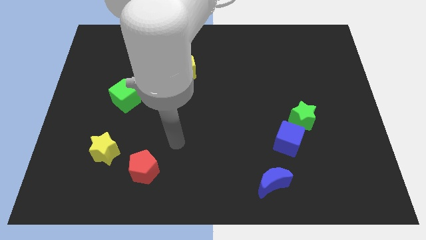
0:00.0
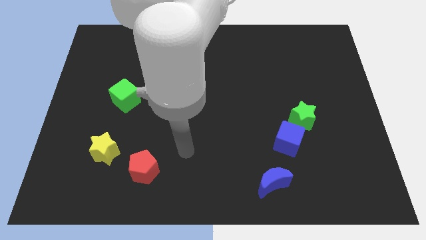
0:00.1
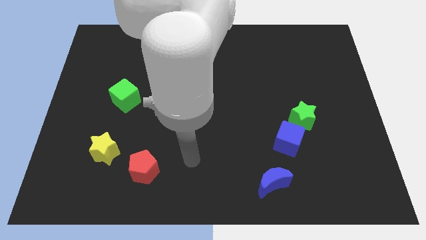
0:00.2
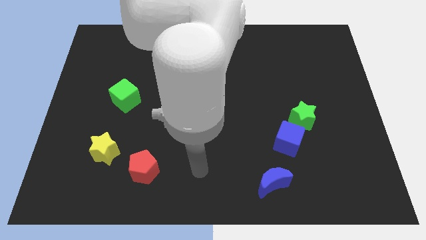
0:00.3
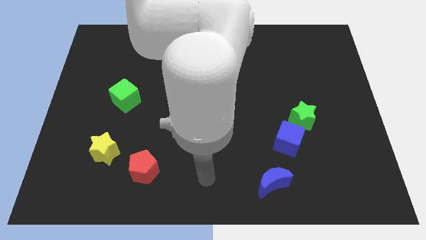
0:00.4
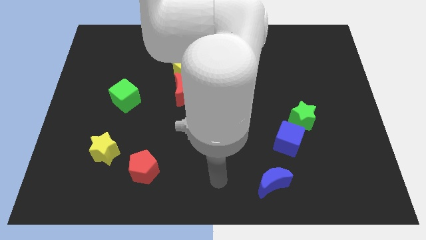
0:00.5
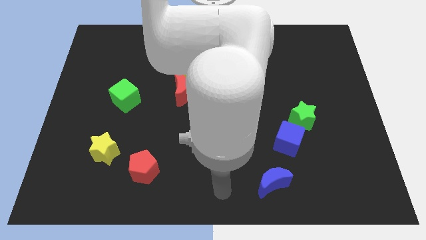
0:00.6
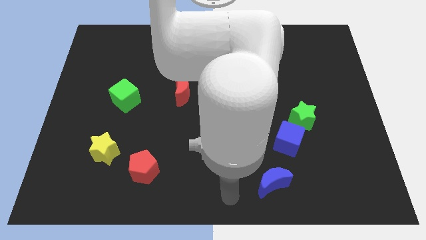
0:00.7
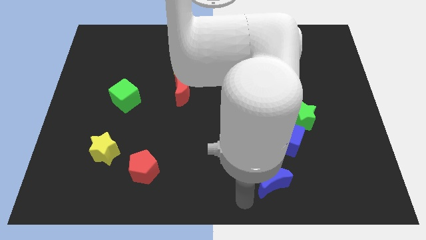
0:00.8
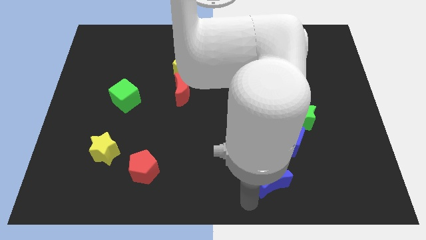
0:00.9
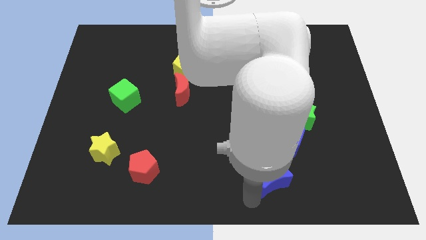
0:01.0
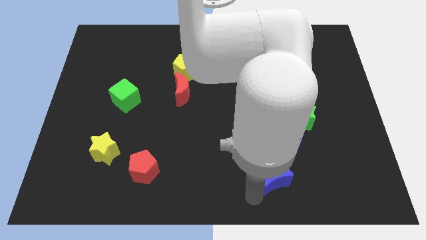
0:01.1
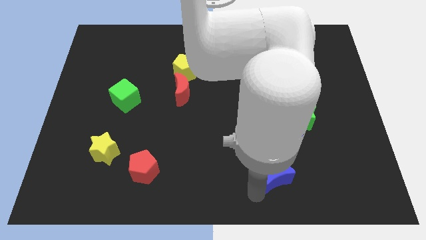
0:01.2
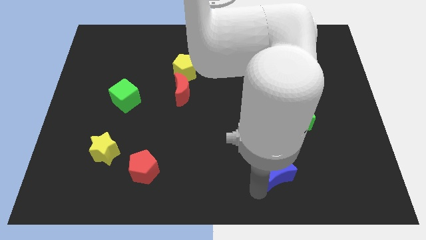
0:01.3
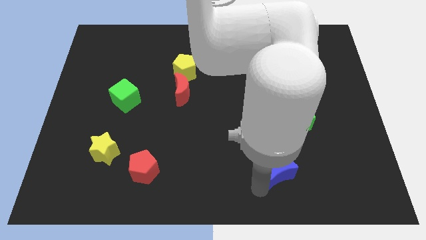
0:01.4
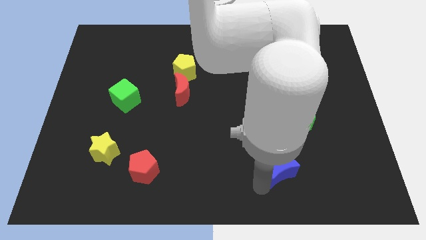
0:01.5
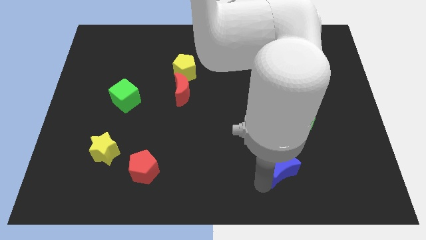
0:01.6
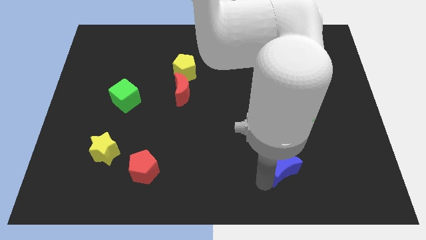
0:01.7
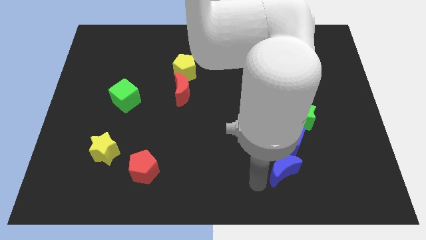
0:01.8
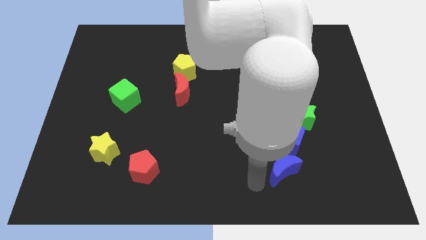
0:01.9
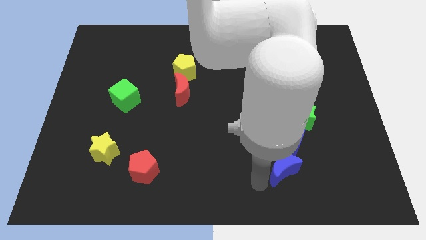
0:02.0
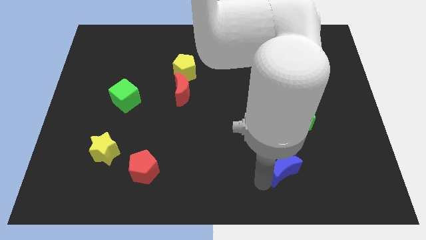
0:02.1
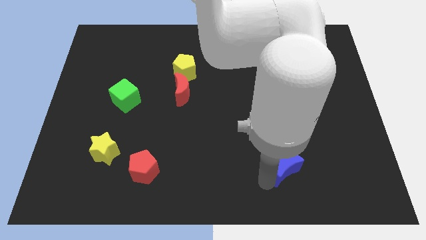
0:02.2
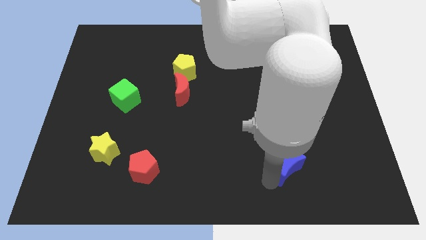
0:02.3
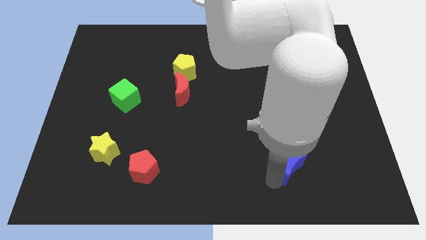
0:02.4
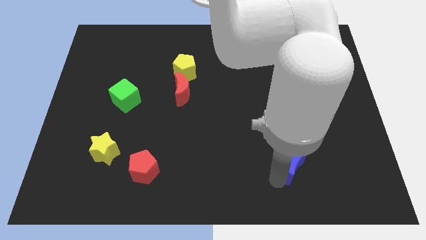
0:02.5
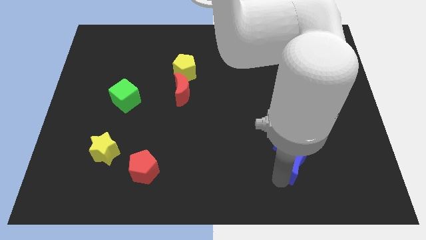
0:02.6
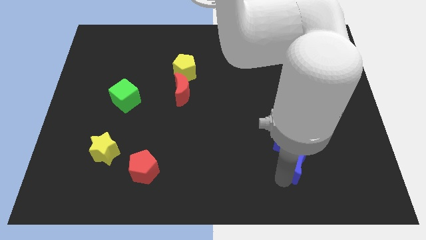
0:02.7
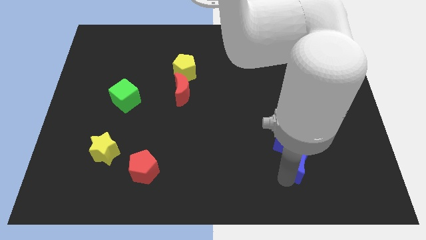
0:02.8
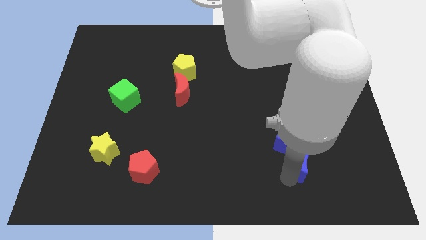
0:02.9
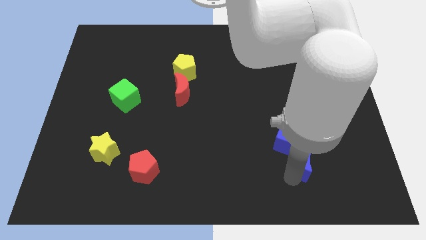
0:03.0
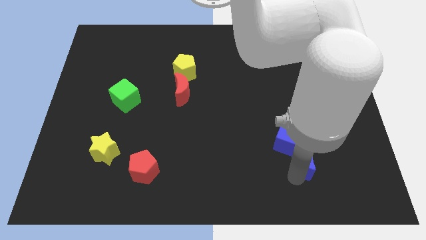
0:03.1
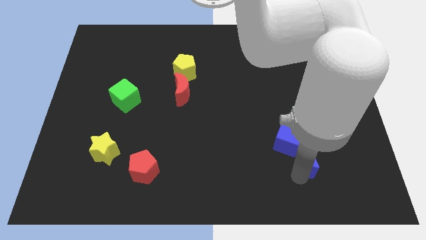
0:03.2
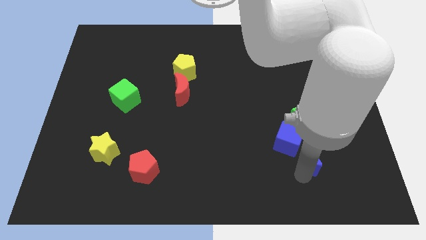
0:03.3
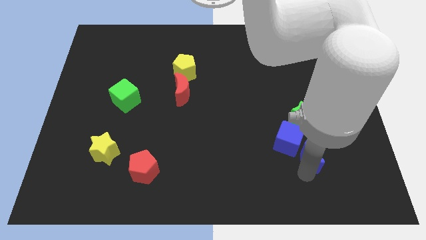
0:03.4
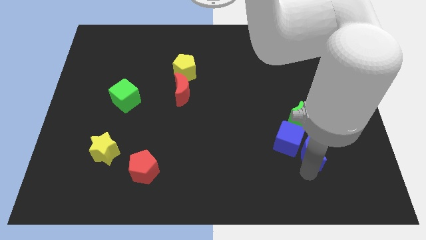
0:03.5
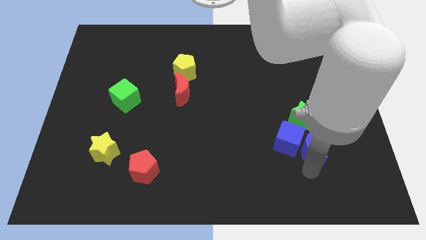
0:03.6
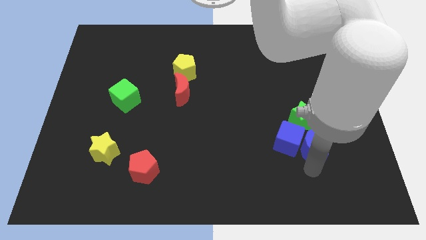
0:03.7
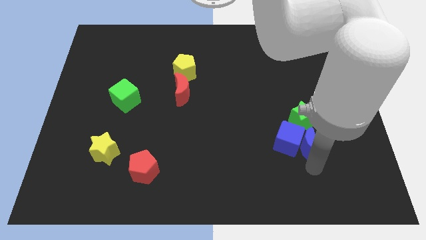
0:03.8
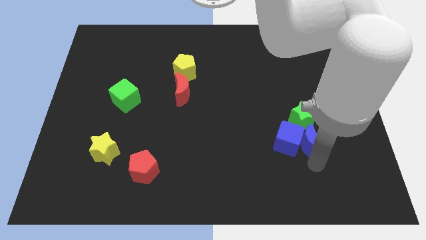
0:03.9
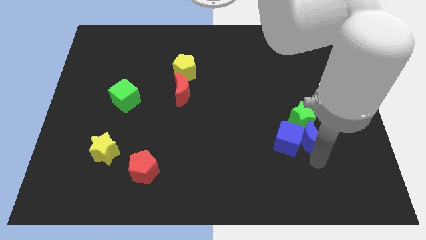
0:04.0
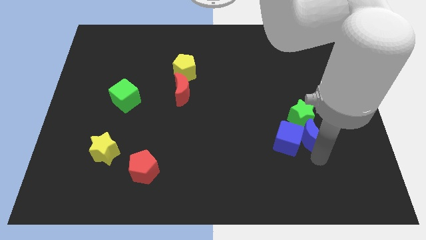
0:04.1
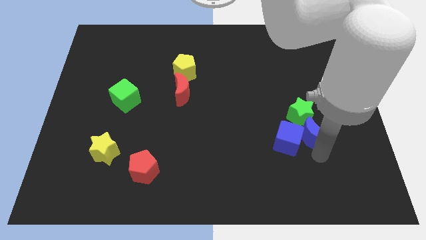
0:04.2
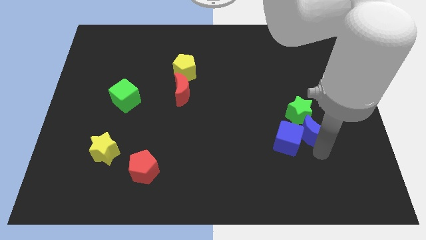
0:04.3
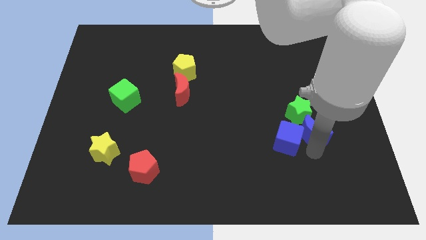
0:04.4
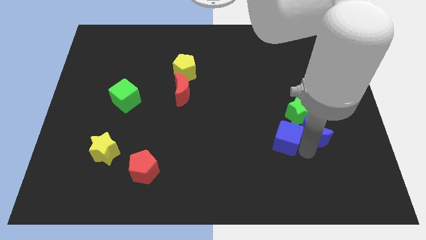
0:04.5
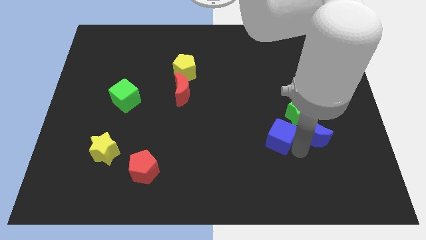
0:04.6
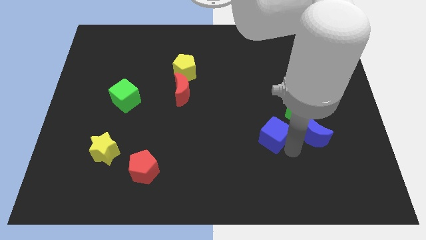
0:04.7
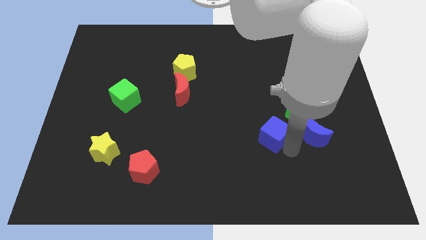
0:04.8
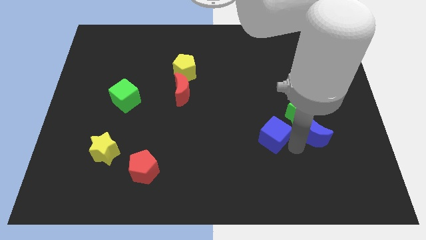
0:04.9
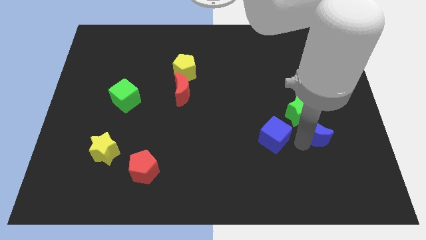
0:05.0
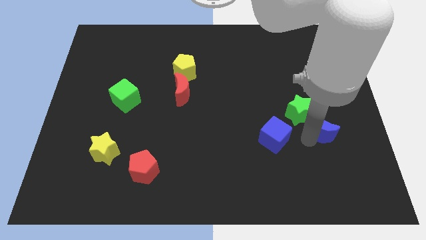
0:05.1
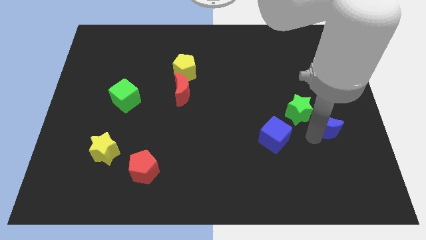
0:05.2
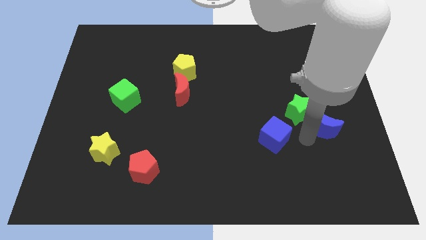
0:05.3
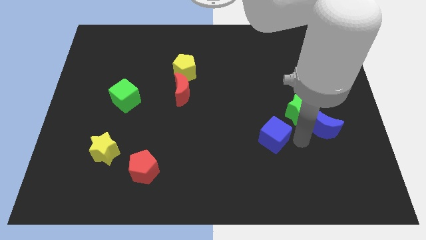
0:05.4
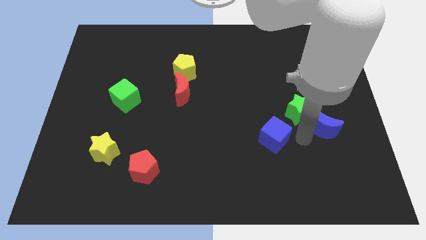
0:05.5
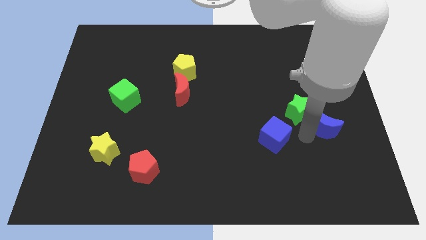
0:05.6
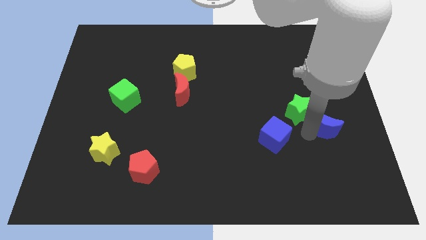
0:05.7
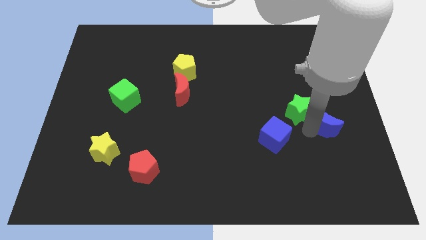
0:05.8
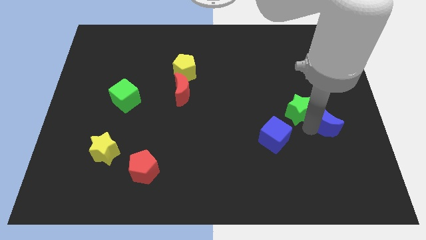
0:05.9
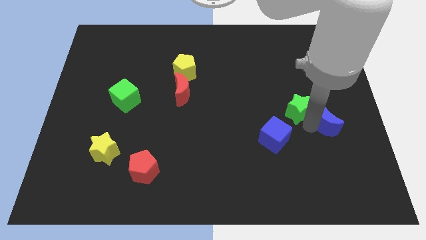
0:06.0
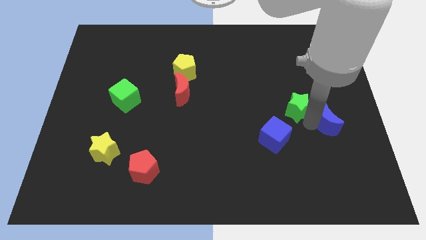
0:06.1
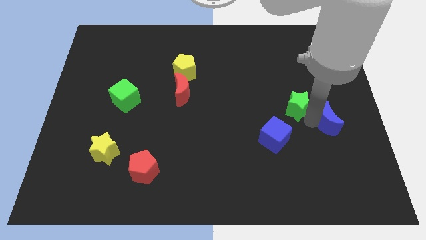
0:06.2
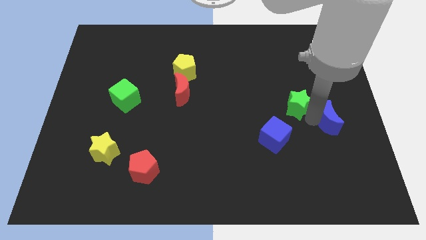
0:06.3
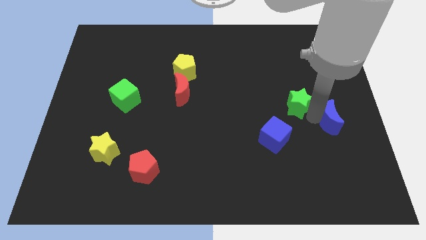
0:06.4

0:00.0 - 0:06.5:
slide the blue moon to the right side

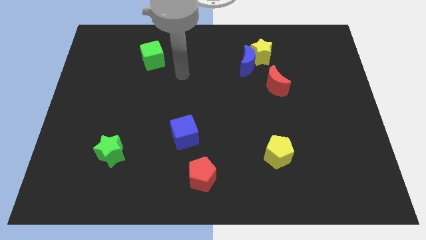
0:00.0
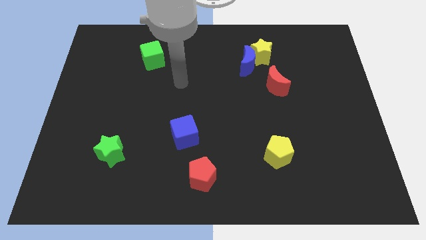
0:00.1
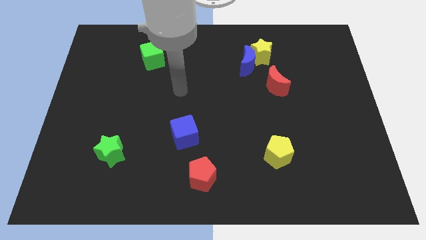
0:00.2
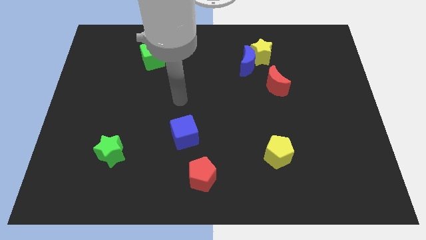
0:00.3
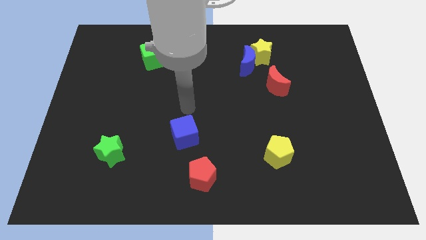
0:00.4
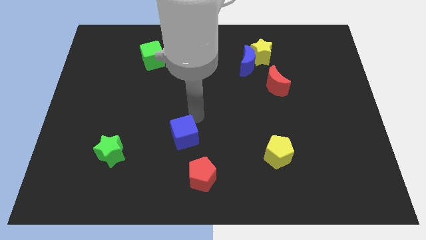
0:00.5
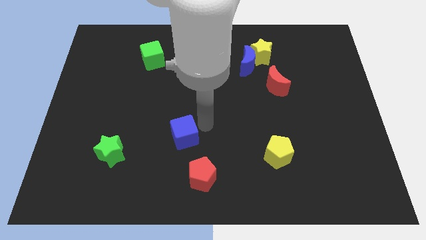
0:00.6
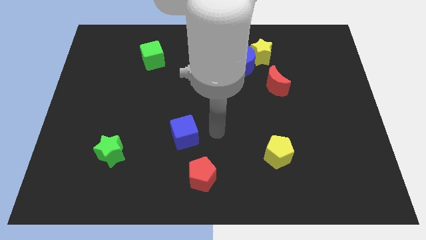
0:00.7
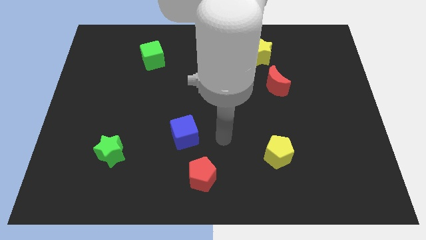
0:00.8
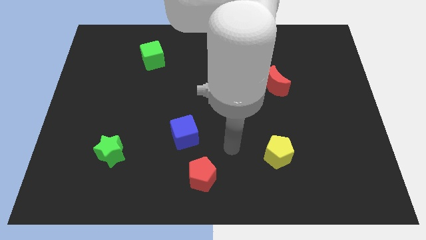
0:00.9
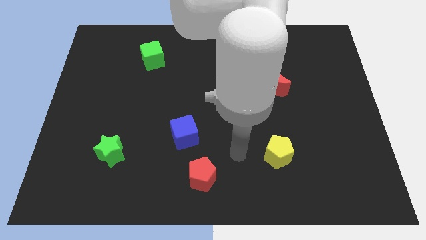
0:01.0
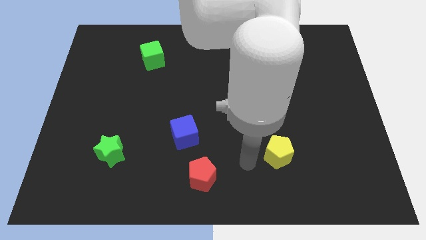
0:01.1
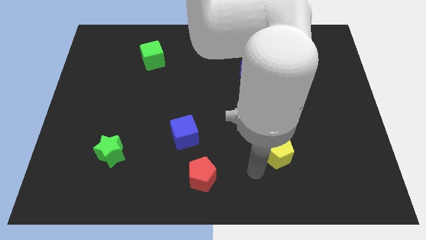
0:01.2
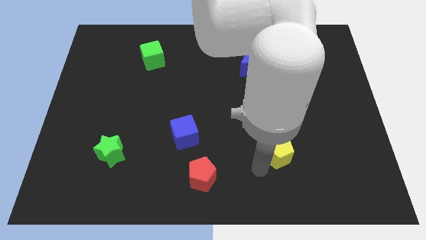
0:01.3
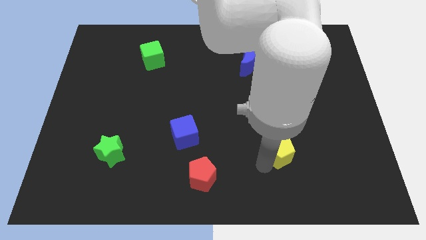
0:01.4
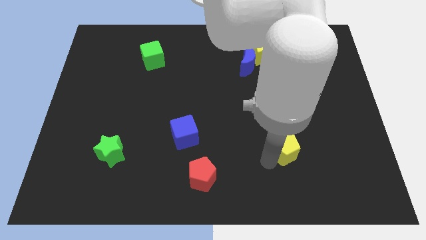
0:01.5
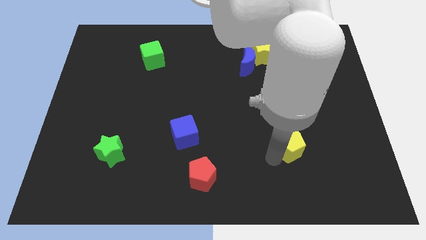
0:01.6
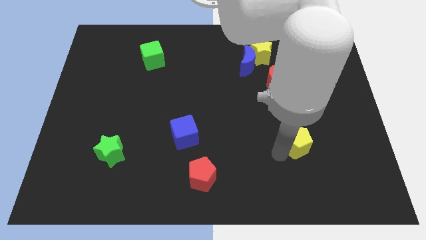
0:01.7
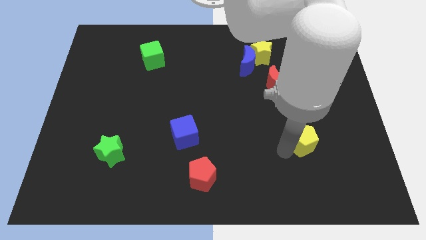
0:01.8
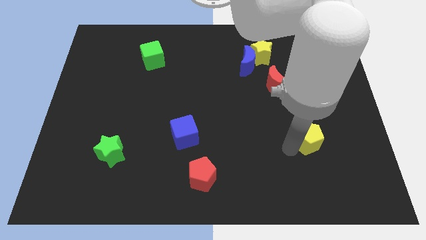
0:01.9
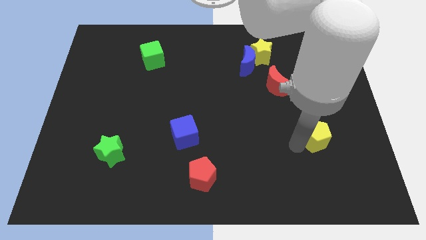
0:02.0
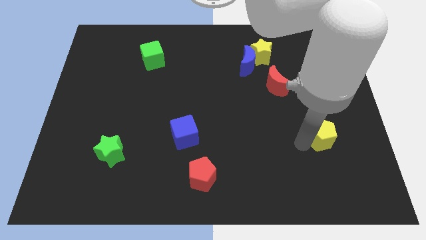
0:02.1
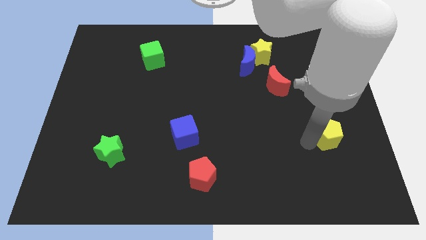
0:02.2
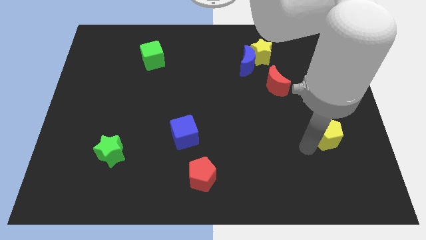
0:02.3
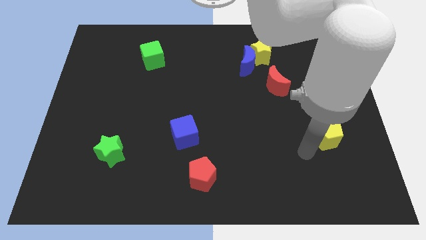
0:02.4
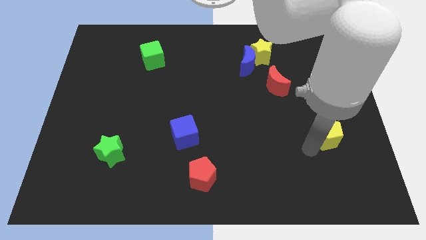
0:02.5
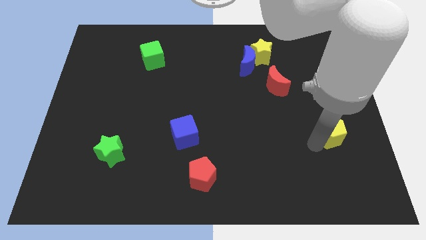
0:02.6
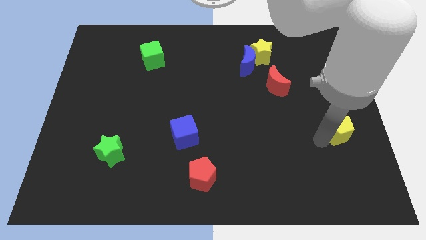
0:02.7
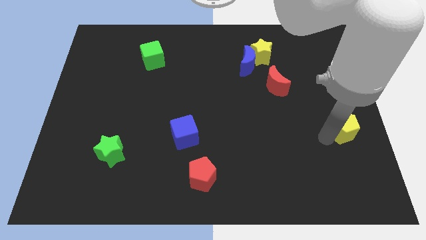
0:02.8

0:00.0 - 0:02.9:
push the yellow pentagon to the center right
